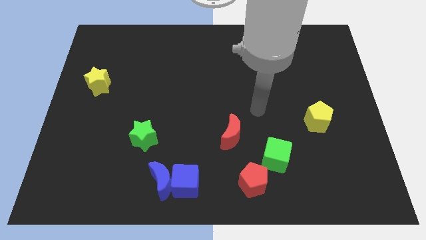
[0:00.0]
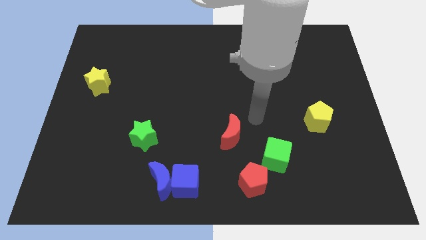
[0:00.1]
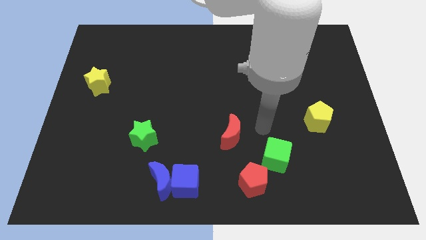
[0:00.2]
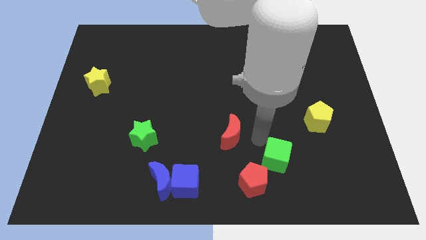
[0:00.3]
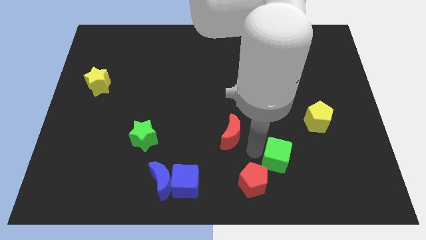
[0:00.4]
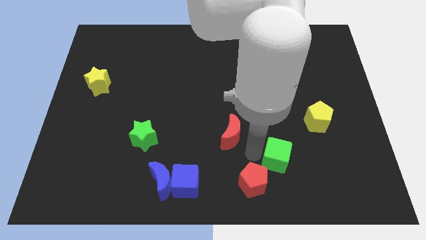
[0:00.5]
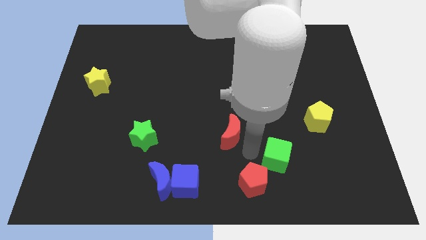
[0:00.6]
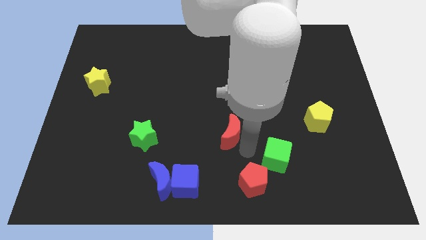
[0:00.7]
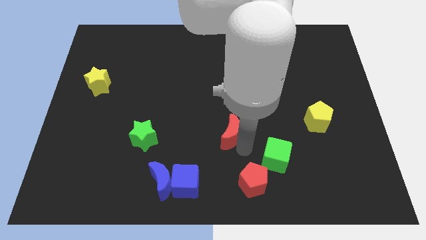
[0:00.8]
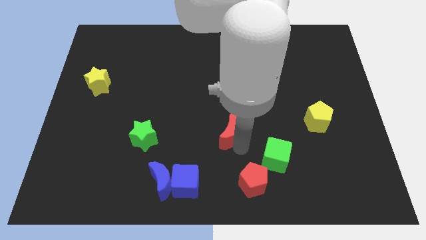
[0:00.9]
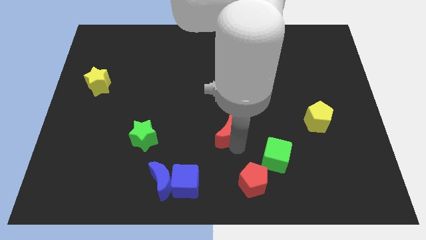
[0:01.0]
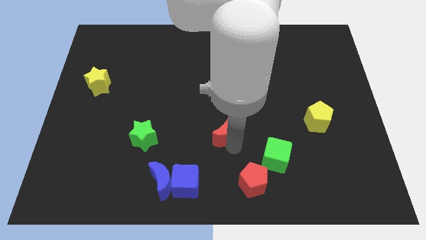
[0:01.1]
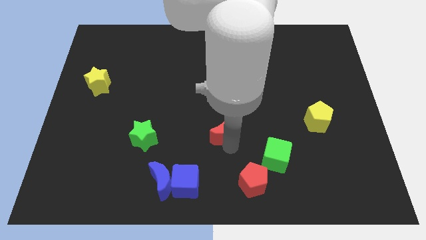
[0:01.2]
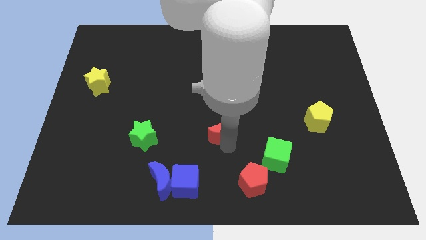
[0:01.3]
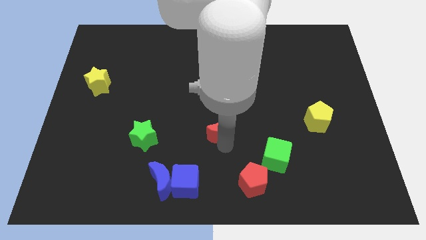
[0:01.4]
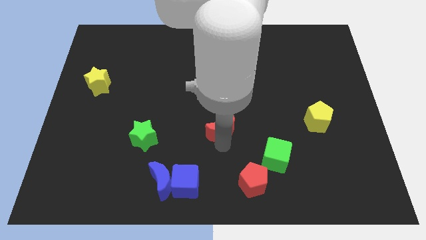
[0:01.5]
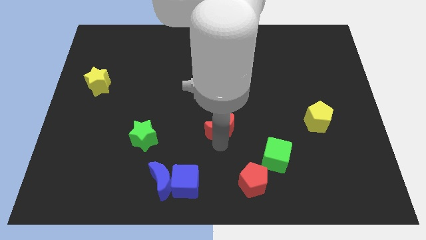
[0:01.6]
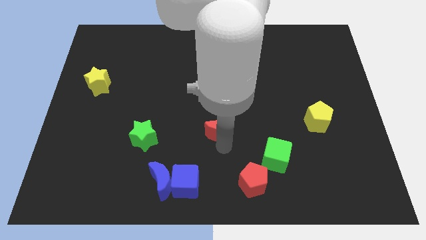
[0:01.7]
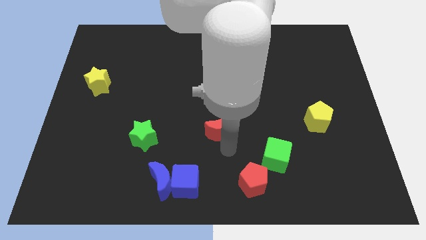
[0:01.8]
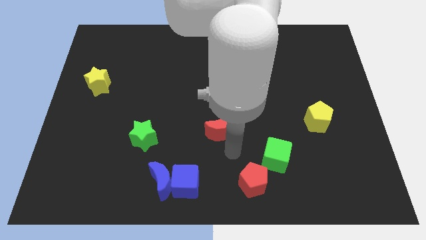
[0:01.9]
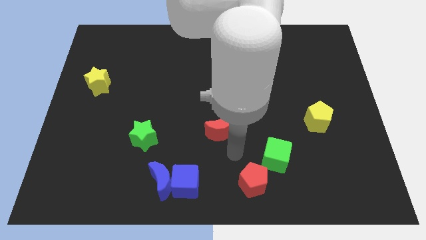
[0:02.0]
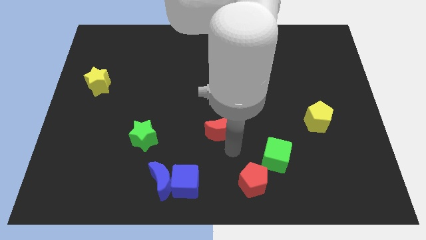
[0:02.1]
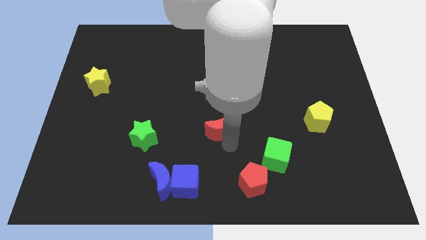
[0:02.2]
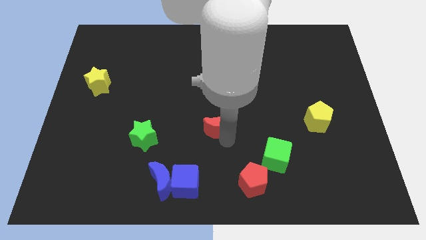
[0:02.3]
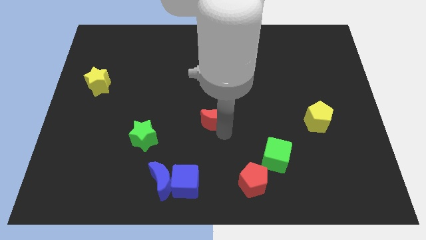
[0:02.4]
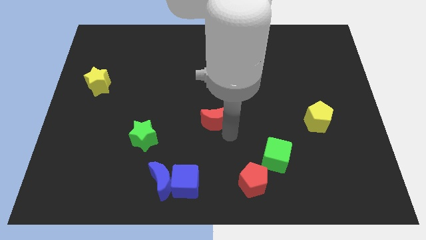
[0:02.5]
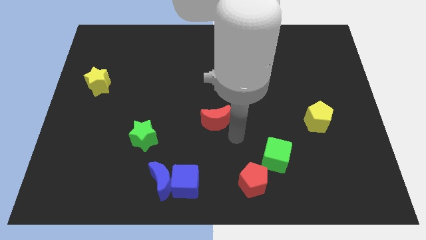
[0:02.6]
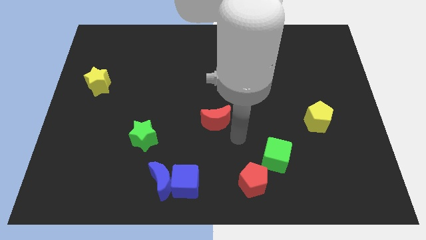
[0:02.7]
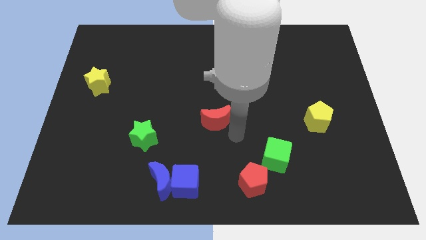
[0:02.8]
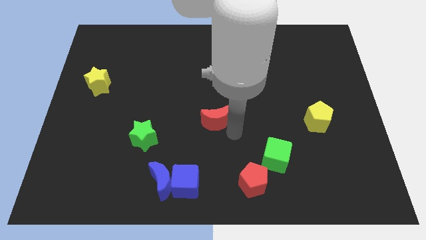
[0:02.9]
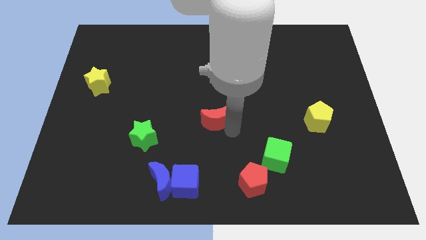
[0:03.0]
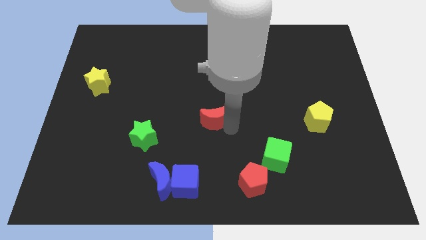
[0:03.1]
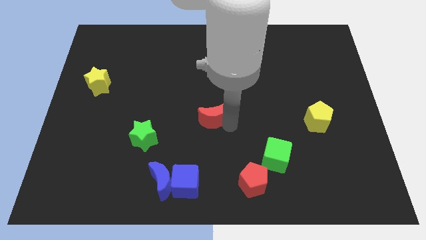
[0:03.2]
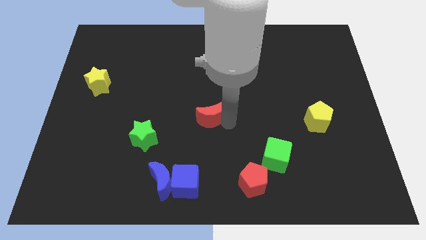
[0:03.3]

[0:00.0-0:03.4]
slightly slide the red moon diagonally upwards and to the left

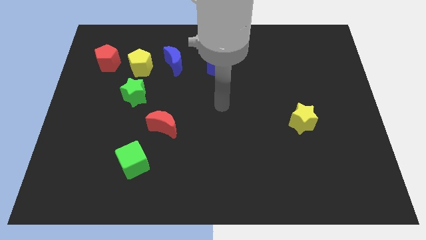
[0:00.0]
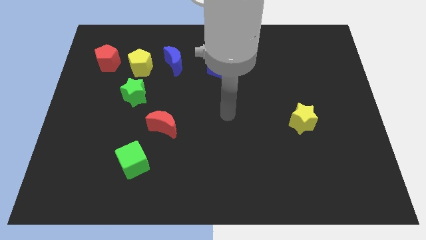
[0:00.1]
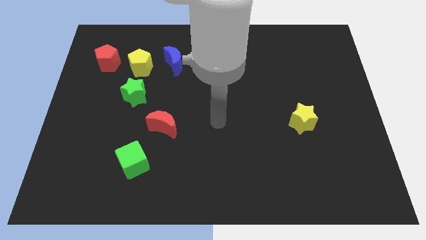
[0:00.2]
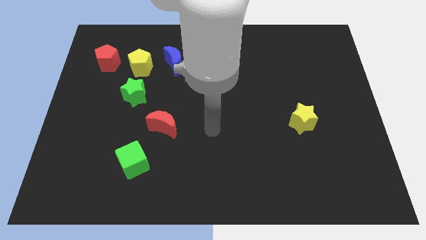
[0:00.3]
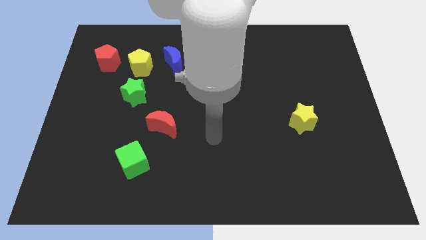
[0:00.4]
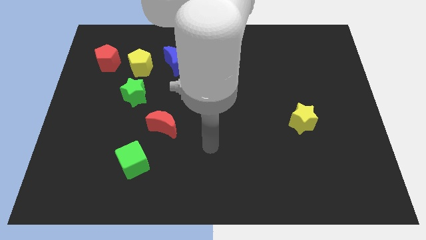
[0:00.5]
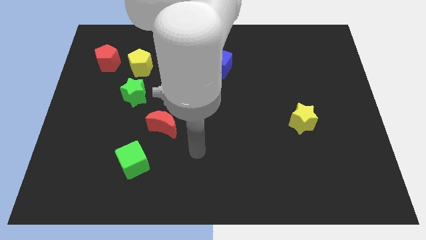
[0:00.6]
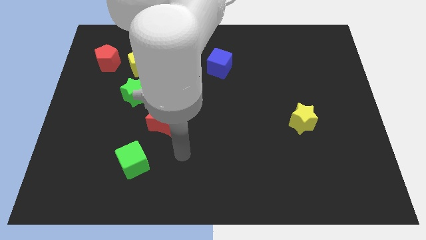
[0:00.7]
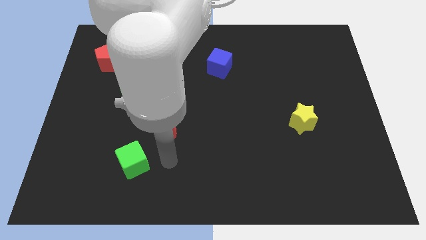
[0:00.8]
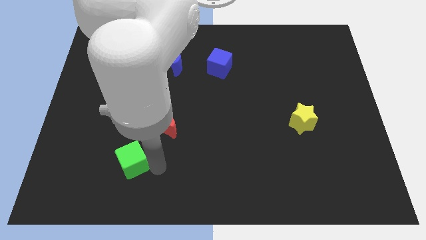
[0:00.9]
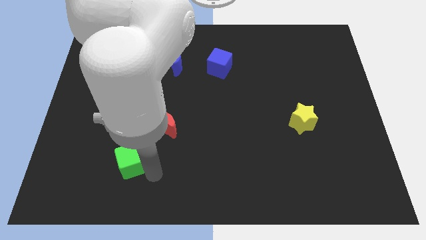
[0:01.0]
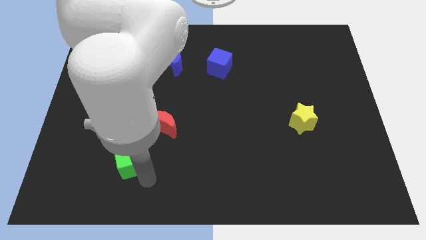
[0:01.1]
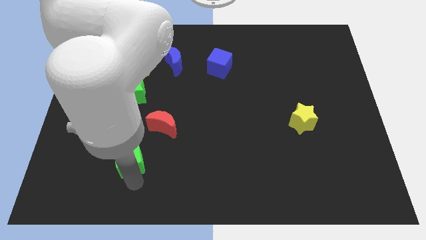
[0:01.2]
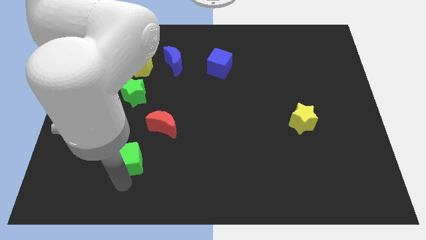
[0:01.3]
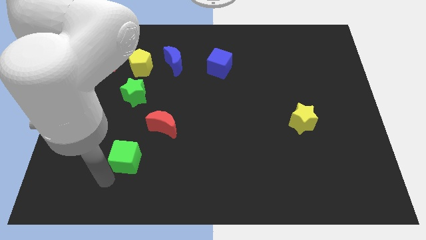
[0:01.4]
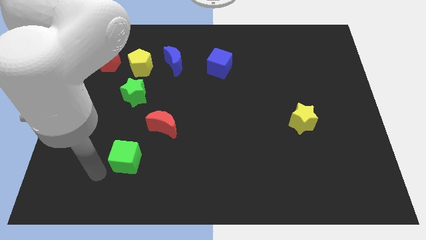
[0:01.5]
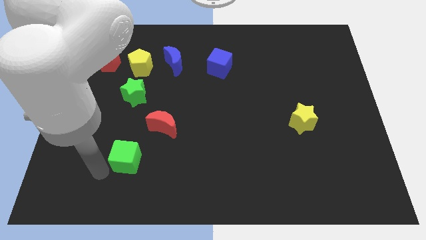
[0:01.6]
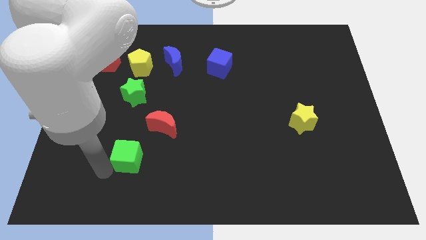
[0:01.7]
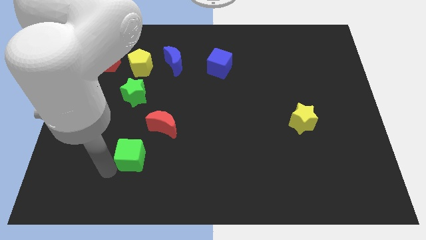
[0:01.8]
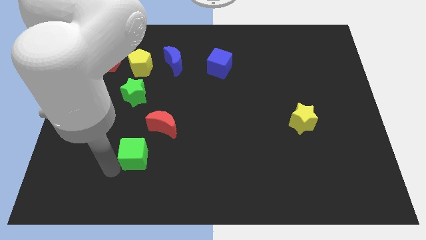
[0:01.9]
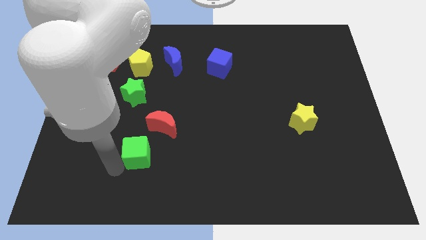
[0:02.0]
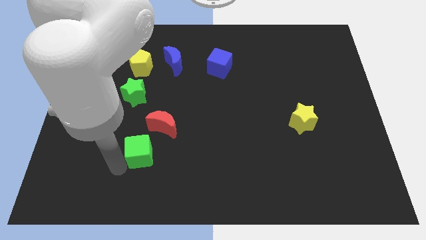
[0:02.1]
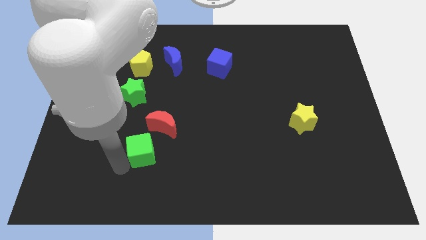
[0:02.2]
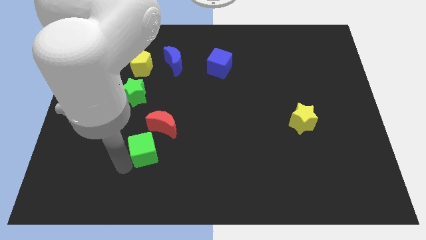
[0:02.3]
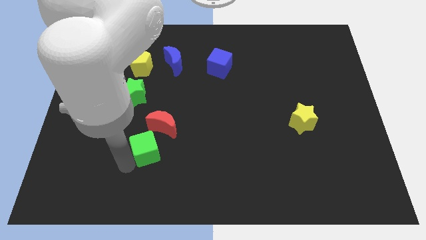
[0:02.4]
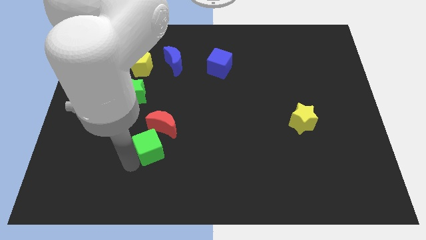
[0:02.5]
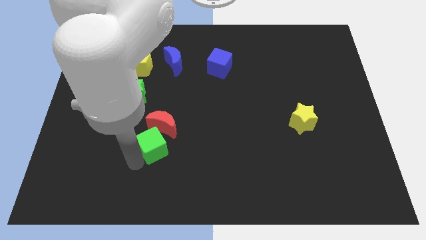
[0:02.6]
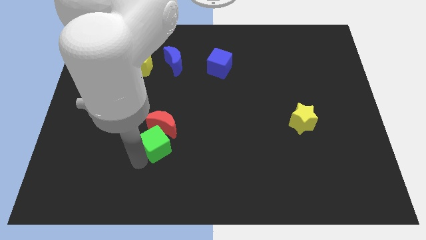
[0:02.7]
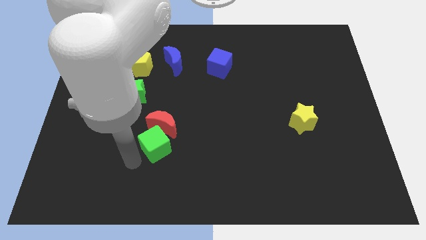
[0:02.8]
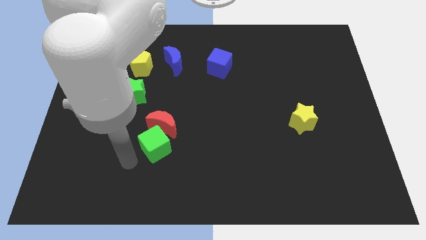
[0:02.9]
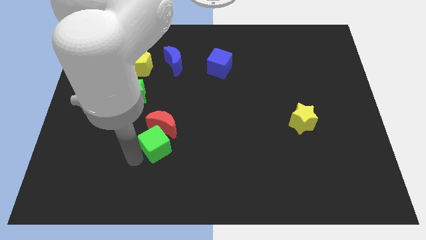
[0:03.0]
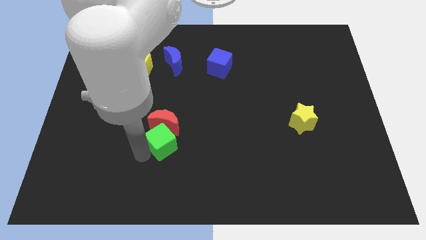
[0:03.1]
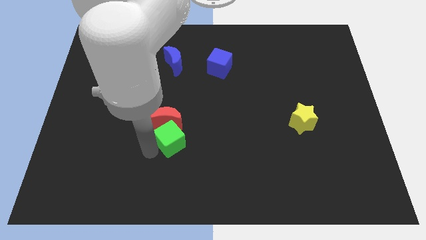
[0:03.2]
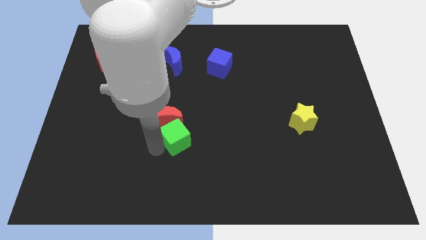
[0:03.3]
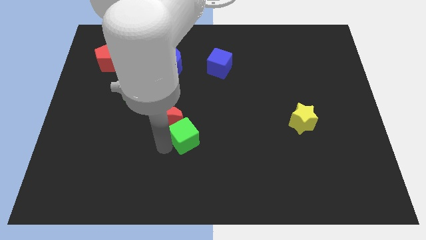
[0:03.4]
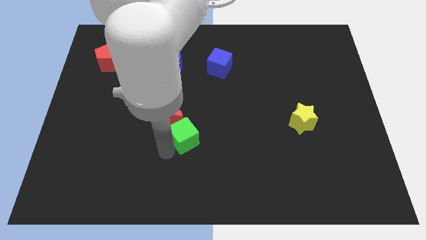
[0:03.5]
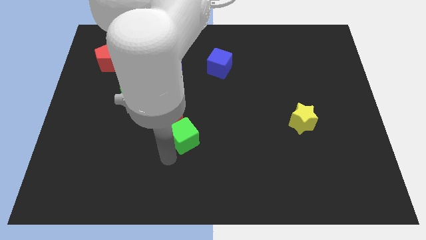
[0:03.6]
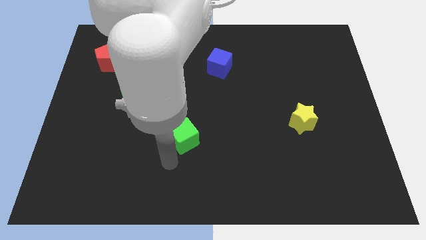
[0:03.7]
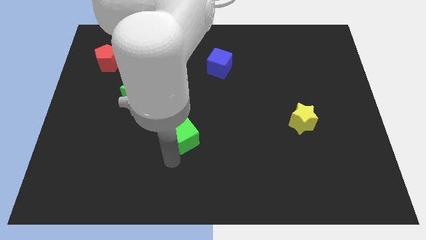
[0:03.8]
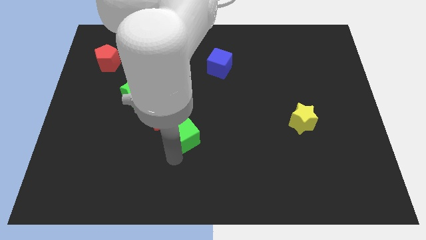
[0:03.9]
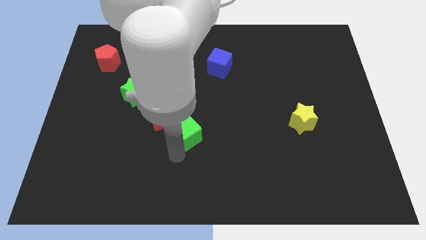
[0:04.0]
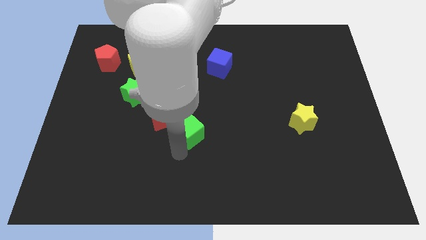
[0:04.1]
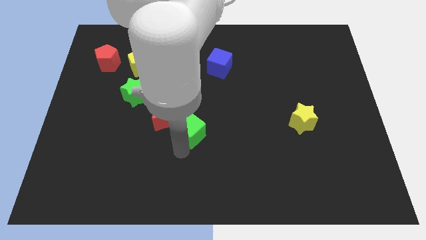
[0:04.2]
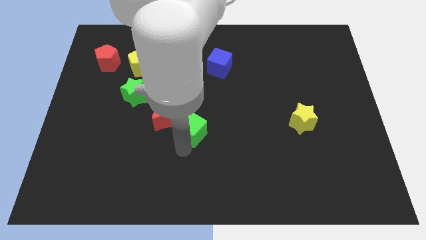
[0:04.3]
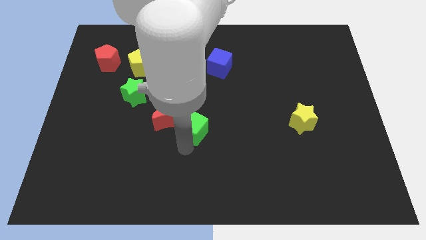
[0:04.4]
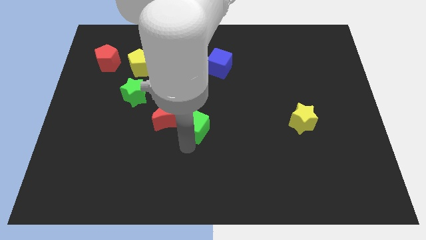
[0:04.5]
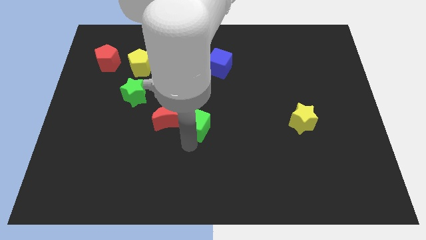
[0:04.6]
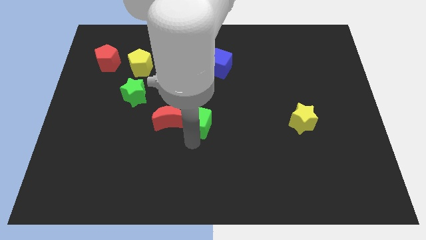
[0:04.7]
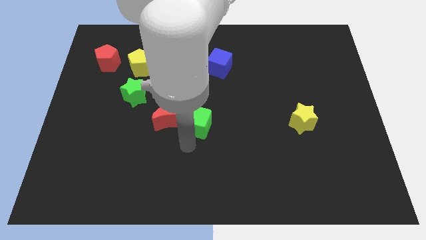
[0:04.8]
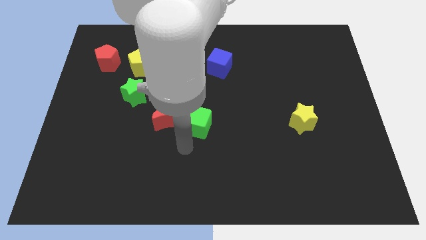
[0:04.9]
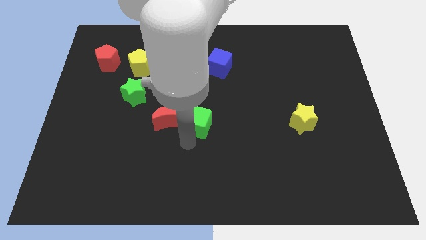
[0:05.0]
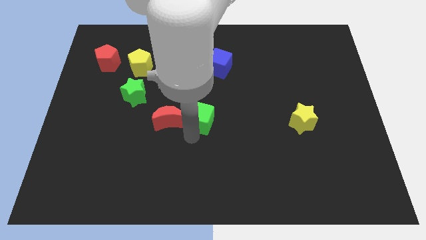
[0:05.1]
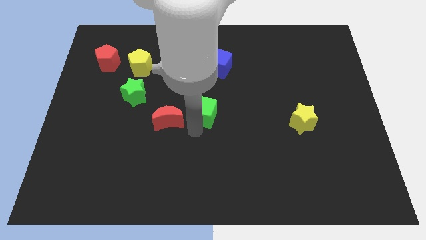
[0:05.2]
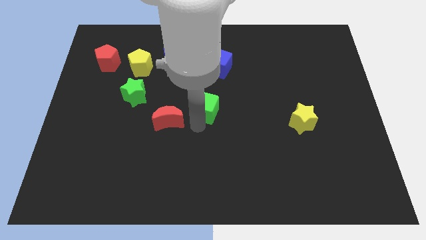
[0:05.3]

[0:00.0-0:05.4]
slide the green cube diagonally up and right
